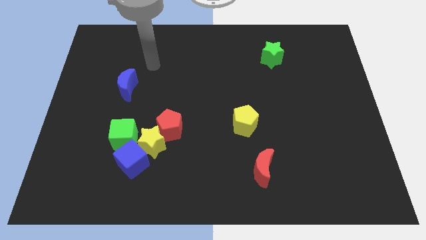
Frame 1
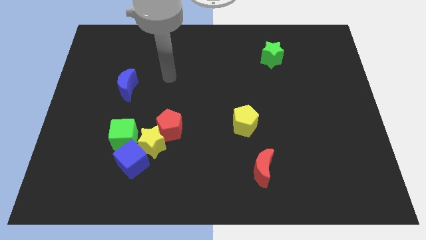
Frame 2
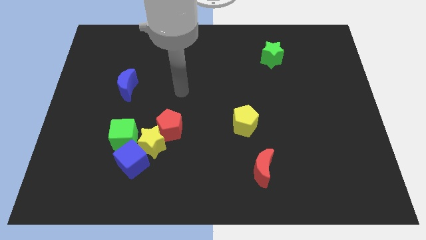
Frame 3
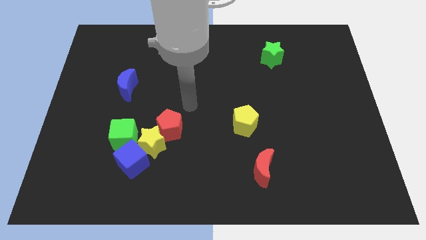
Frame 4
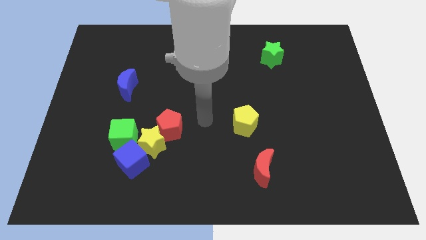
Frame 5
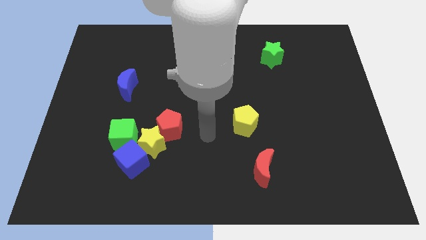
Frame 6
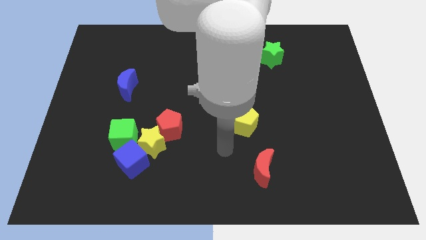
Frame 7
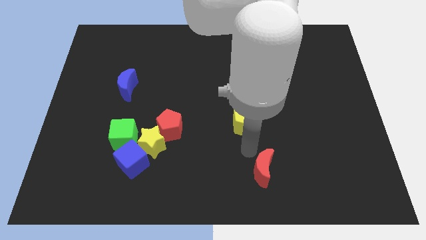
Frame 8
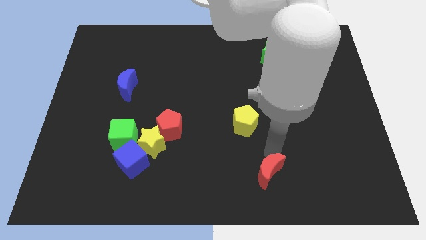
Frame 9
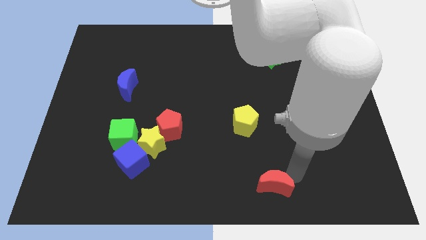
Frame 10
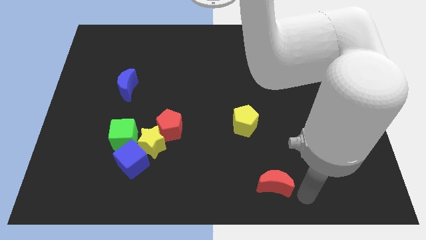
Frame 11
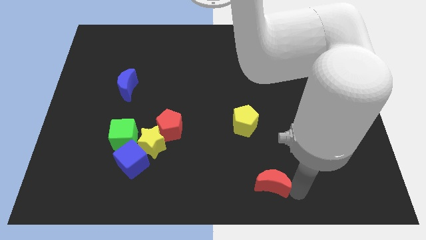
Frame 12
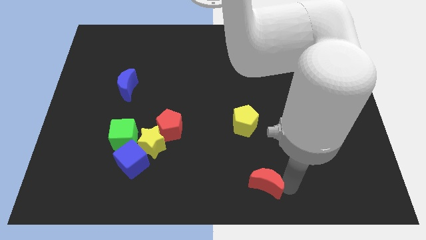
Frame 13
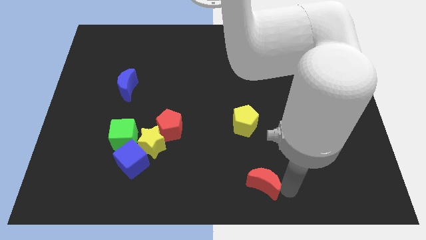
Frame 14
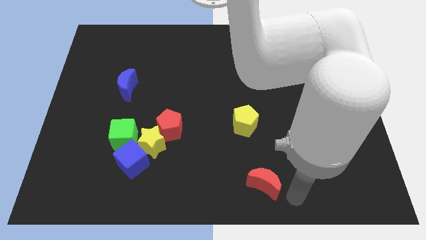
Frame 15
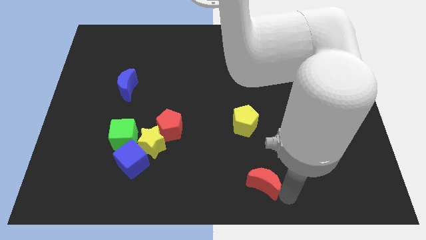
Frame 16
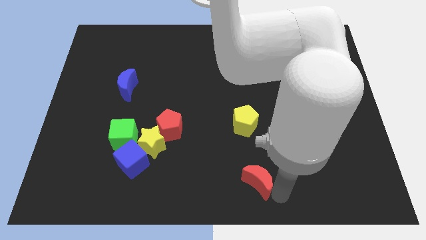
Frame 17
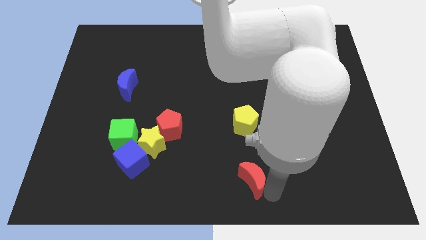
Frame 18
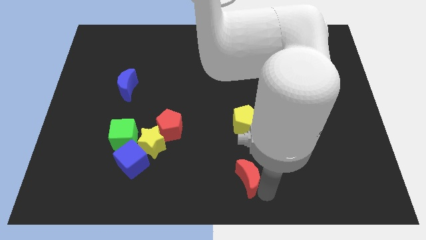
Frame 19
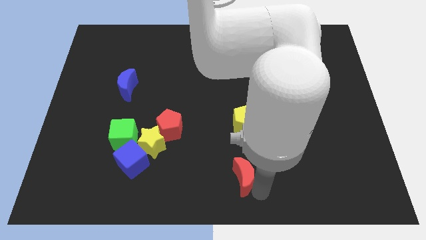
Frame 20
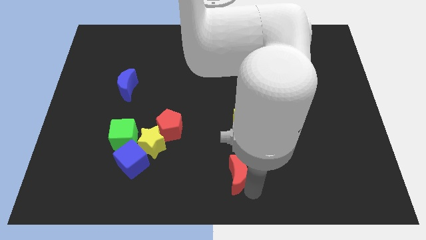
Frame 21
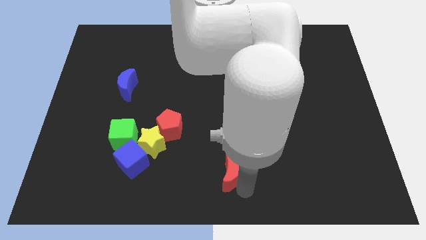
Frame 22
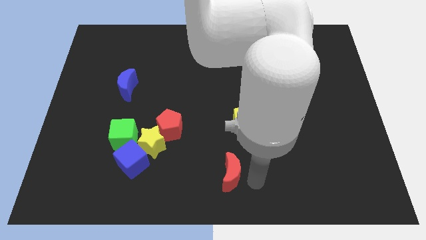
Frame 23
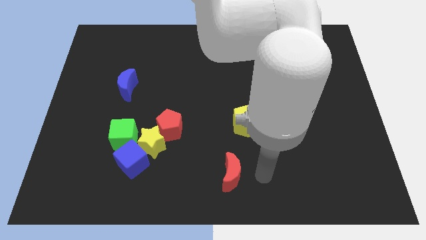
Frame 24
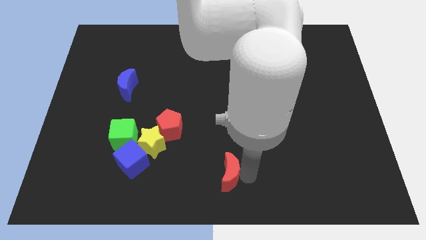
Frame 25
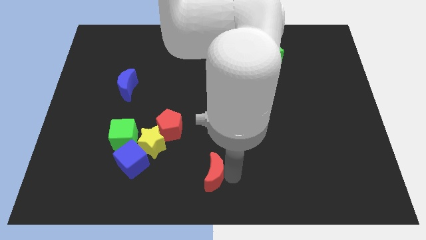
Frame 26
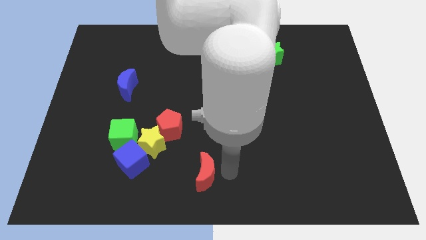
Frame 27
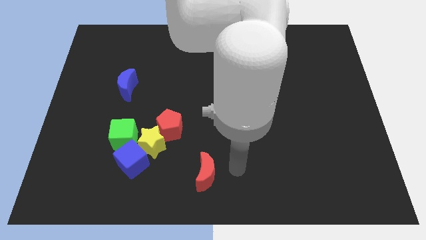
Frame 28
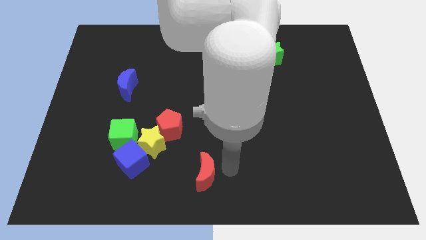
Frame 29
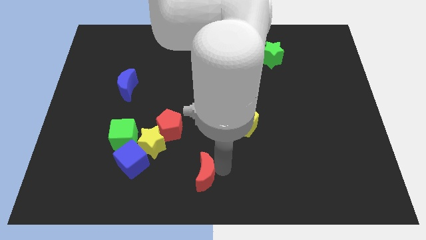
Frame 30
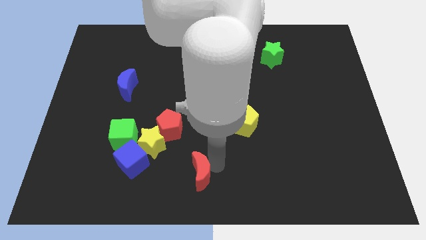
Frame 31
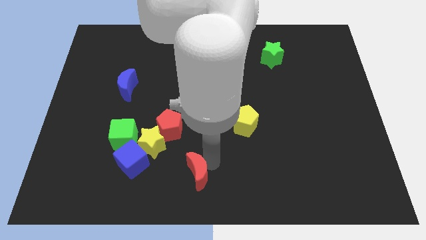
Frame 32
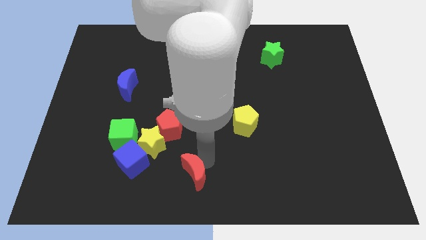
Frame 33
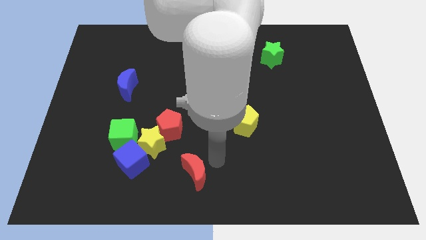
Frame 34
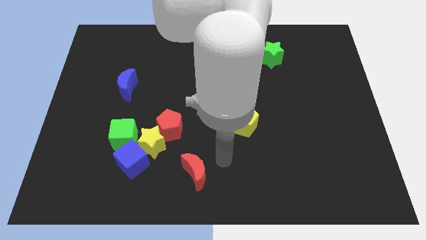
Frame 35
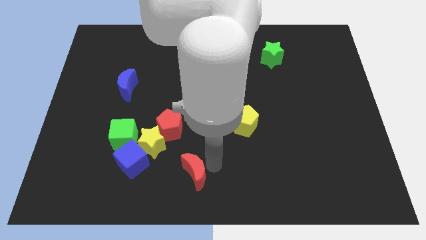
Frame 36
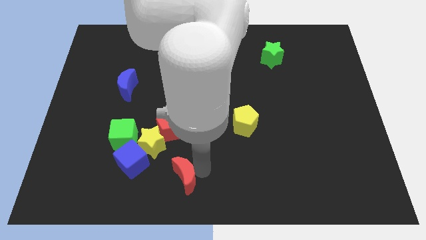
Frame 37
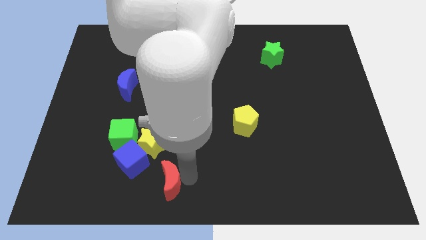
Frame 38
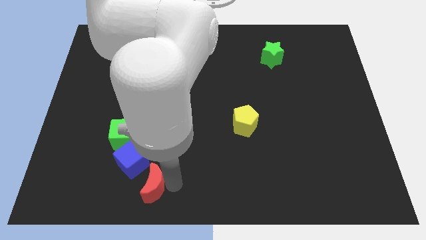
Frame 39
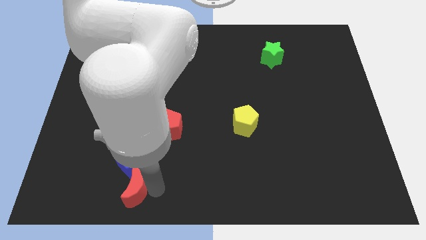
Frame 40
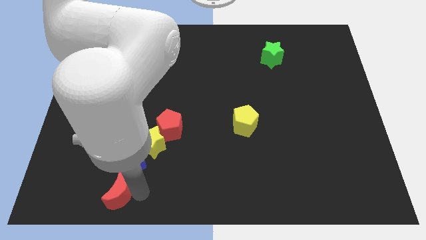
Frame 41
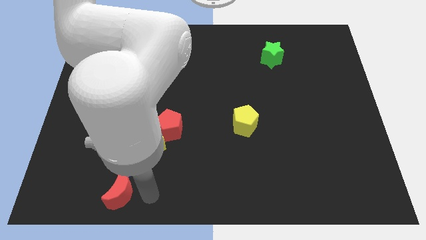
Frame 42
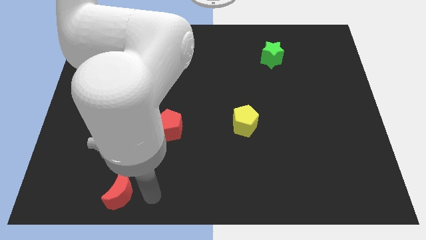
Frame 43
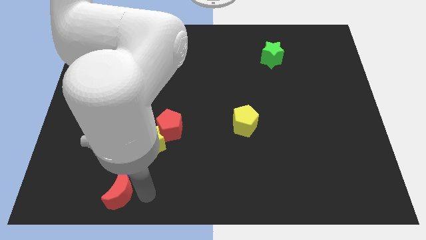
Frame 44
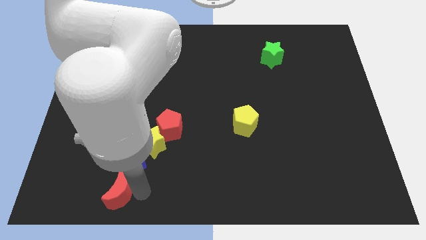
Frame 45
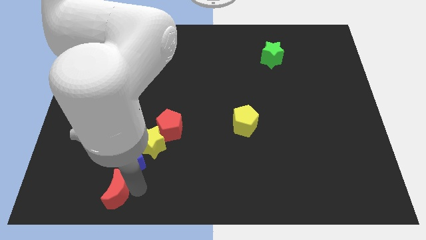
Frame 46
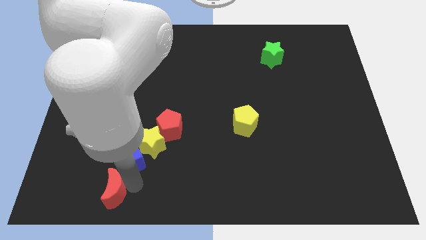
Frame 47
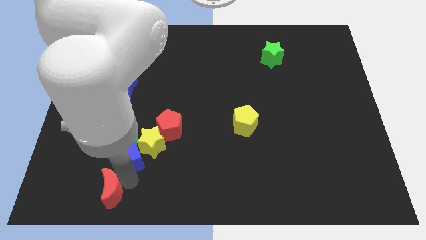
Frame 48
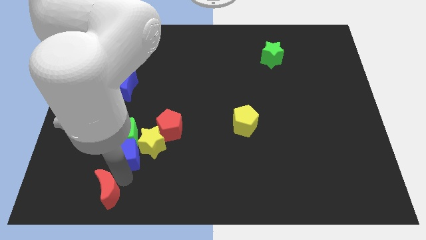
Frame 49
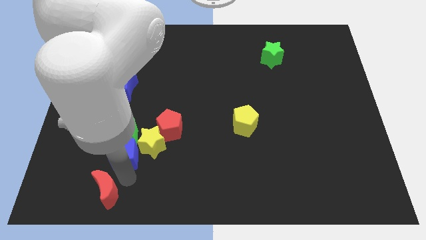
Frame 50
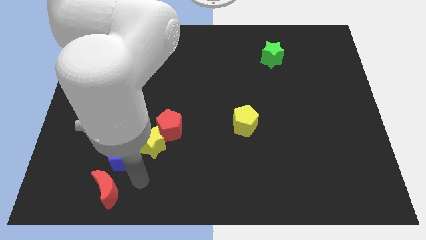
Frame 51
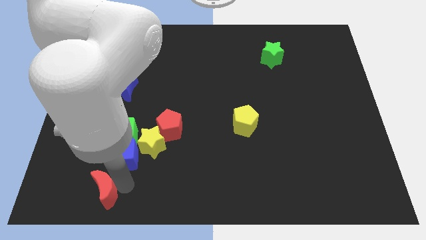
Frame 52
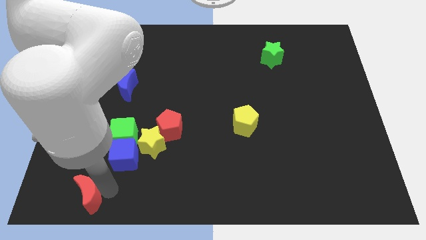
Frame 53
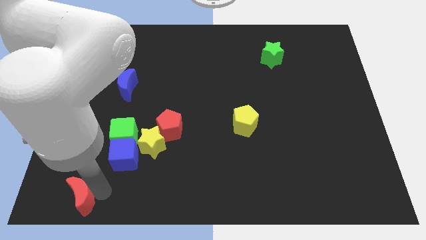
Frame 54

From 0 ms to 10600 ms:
slide the red moon to the bottom left corner
